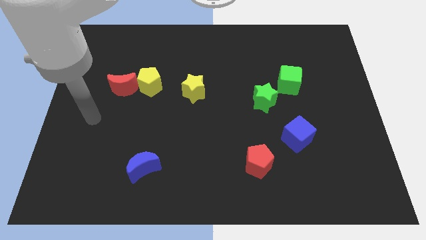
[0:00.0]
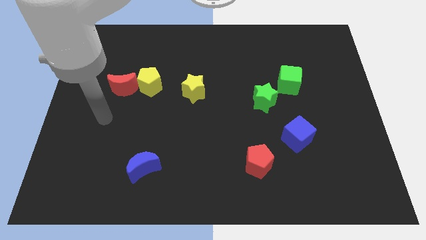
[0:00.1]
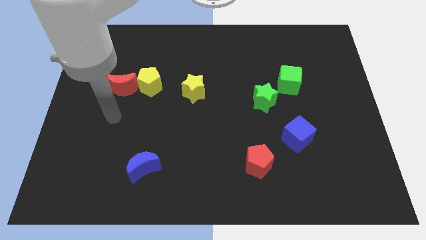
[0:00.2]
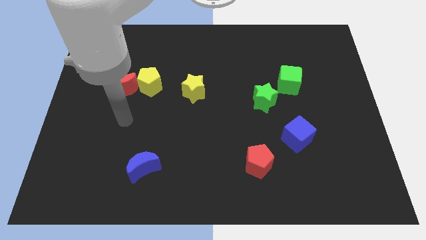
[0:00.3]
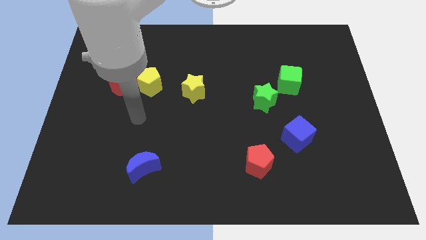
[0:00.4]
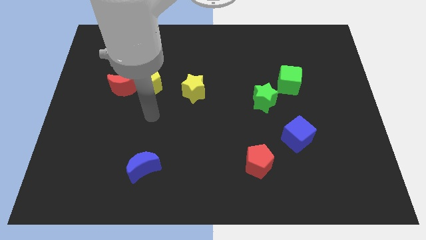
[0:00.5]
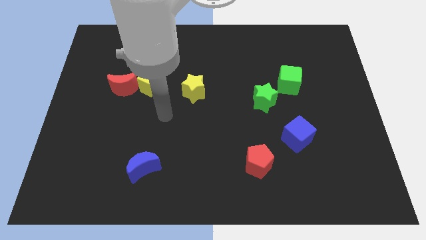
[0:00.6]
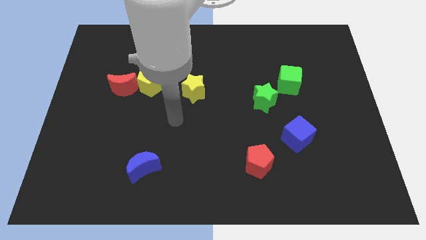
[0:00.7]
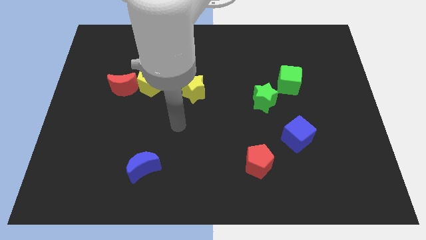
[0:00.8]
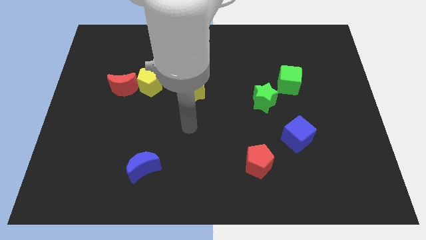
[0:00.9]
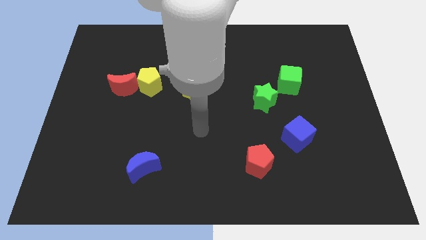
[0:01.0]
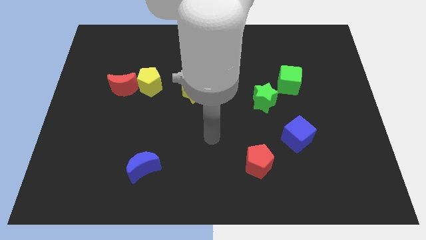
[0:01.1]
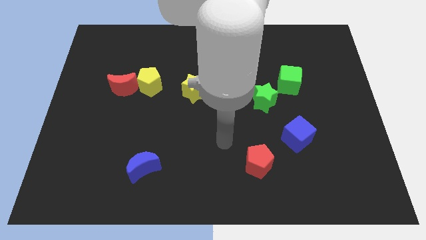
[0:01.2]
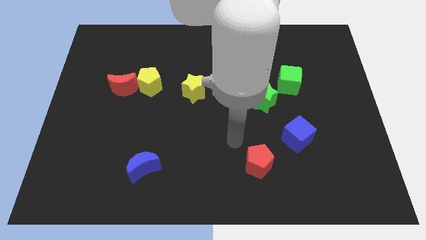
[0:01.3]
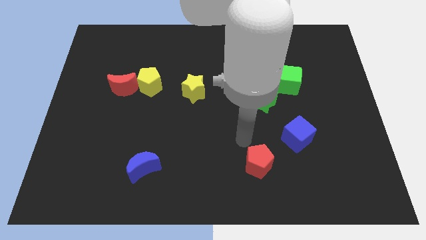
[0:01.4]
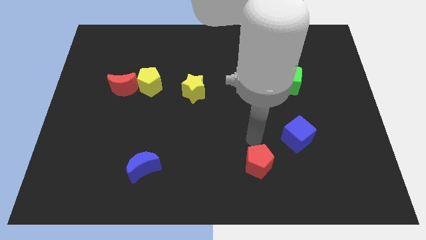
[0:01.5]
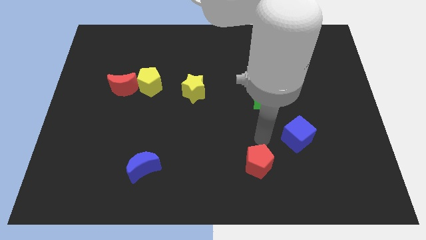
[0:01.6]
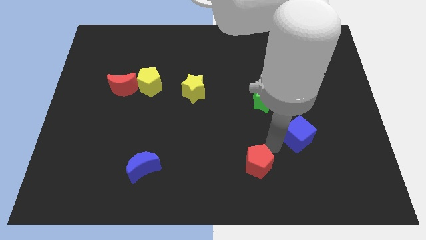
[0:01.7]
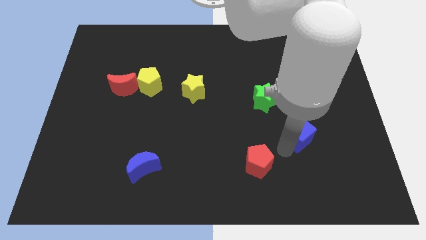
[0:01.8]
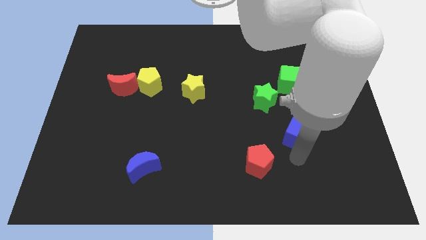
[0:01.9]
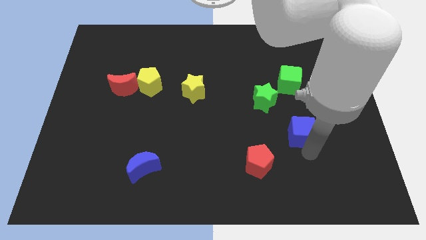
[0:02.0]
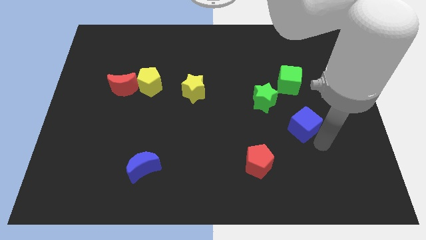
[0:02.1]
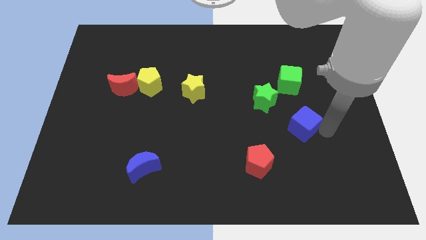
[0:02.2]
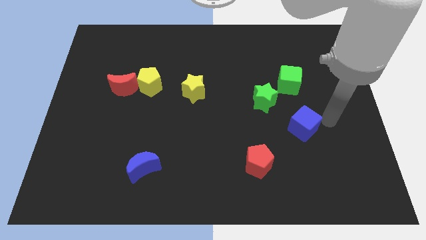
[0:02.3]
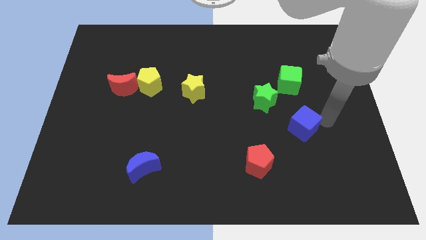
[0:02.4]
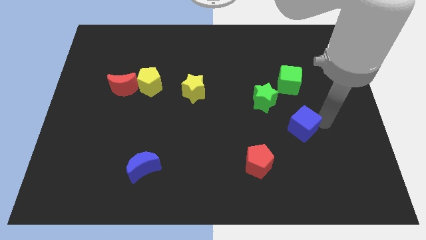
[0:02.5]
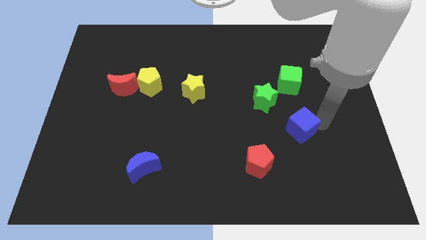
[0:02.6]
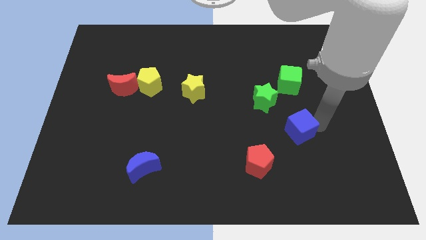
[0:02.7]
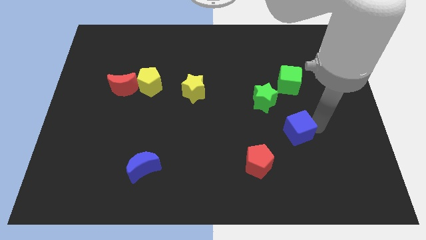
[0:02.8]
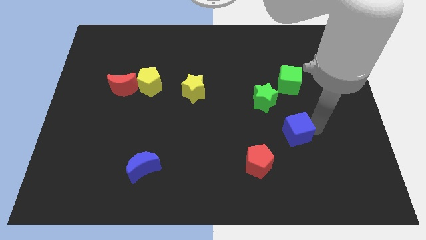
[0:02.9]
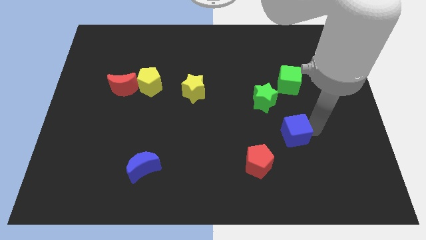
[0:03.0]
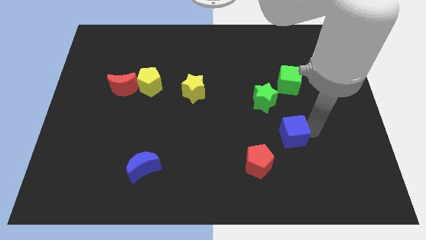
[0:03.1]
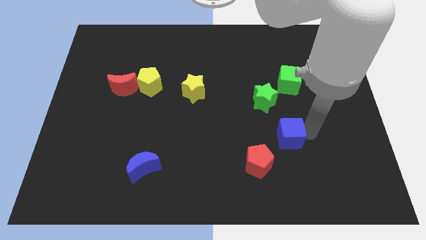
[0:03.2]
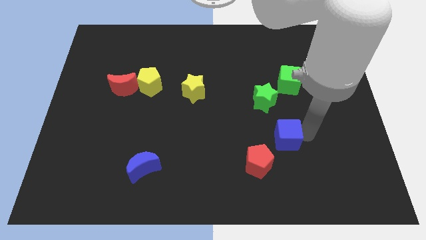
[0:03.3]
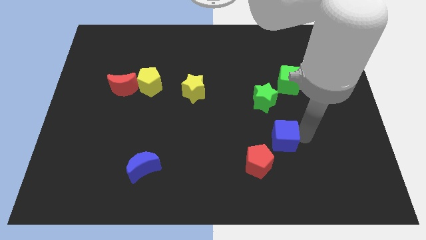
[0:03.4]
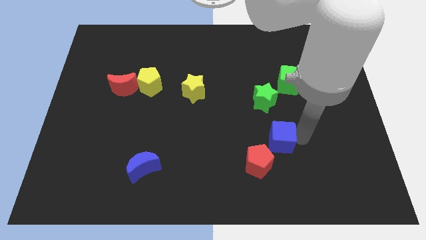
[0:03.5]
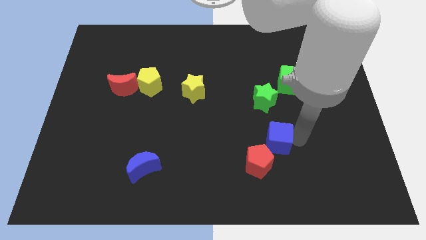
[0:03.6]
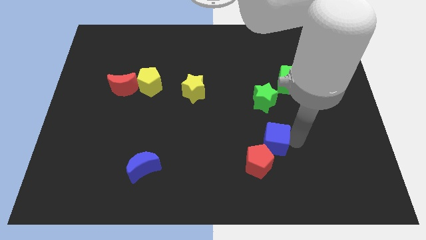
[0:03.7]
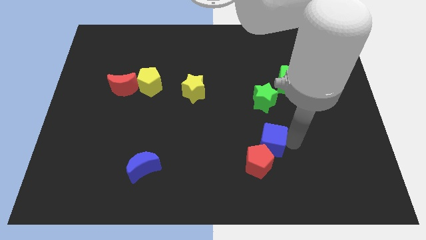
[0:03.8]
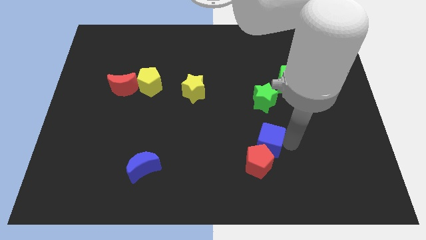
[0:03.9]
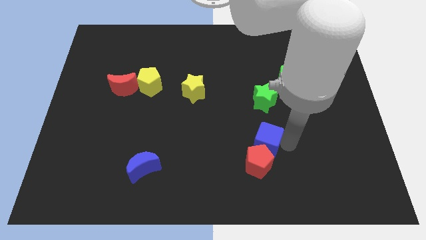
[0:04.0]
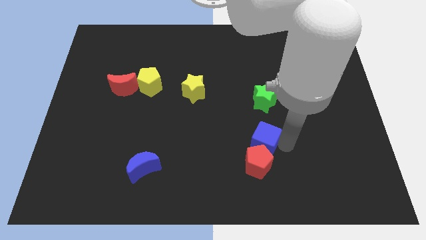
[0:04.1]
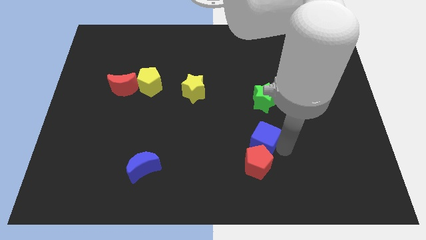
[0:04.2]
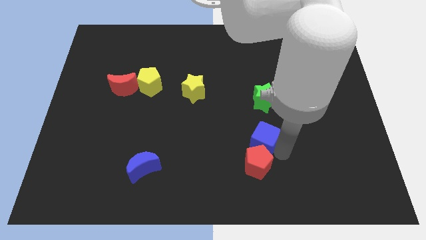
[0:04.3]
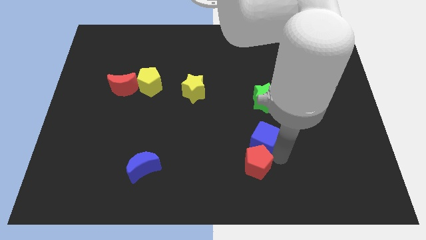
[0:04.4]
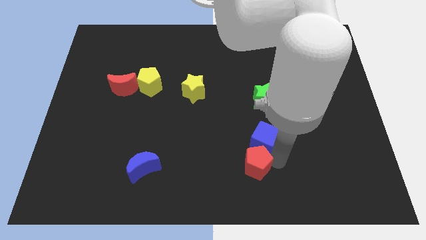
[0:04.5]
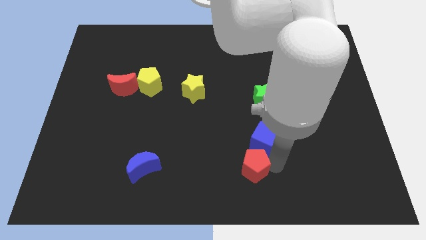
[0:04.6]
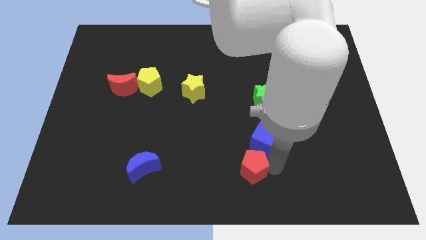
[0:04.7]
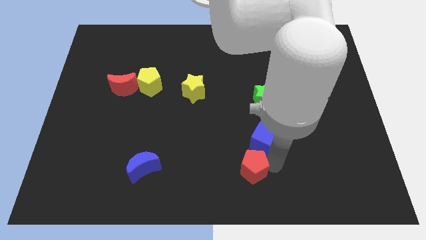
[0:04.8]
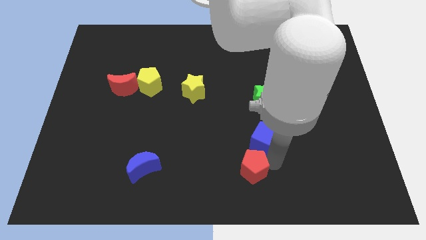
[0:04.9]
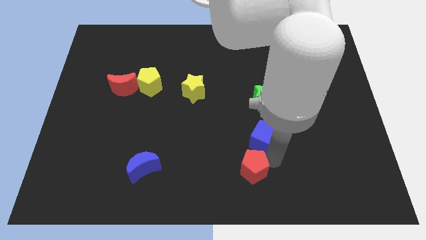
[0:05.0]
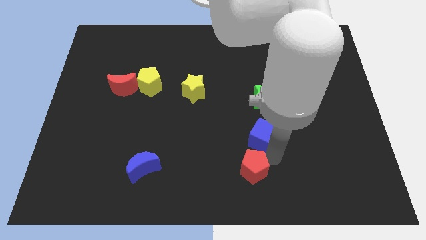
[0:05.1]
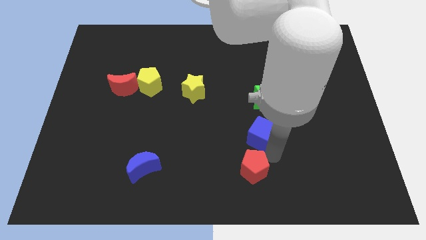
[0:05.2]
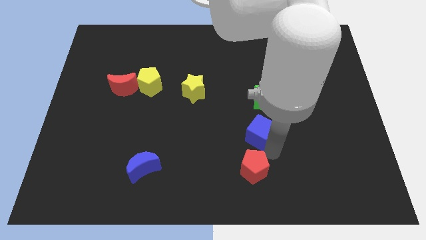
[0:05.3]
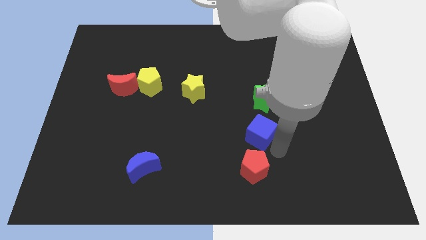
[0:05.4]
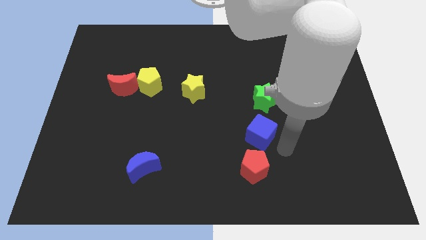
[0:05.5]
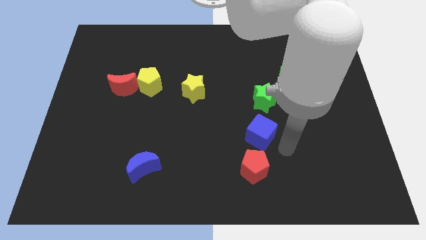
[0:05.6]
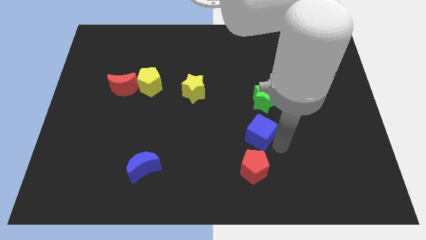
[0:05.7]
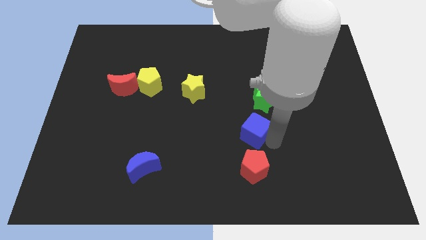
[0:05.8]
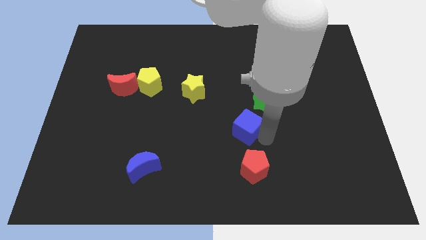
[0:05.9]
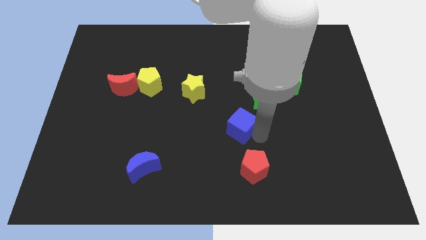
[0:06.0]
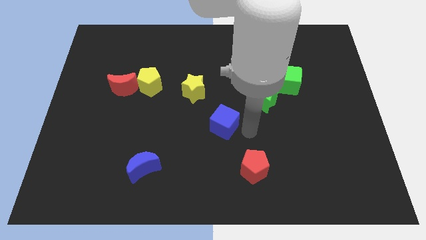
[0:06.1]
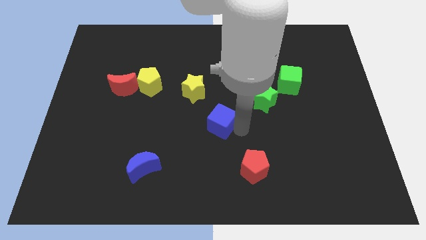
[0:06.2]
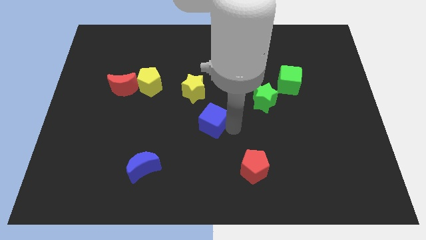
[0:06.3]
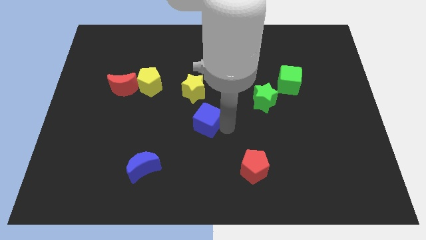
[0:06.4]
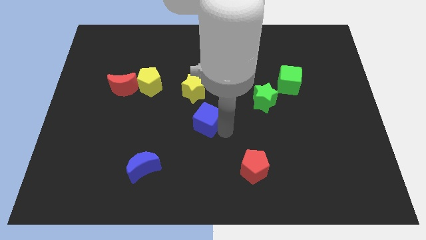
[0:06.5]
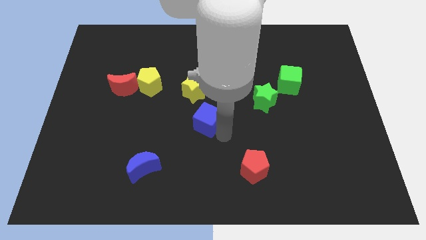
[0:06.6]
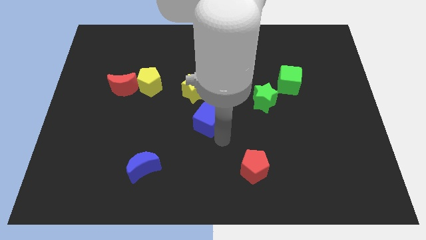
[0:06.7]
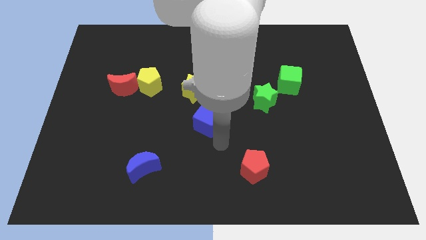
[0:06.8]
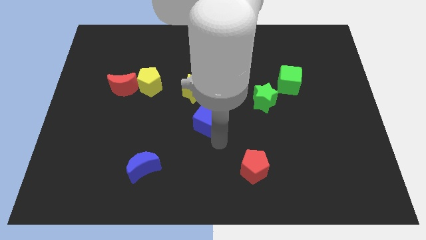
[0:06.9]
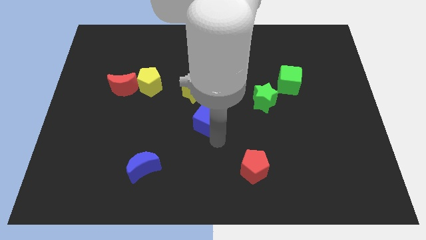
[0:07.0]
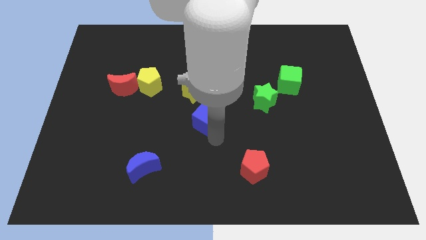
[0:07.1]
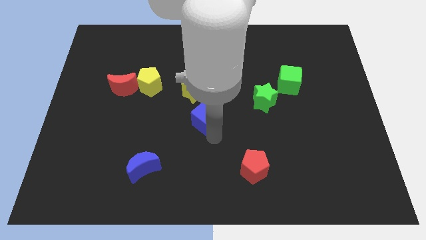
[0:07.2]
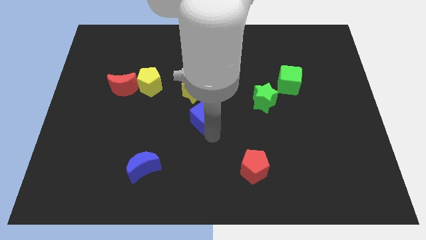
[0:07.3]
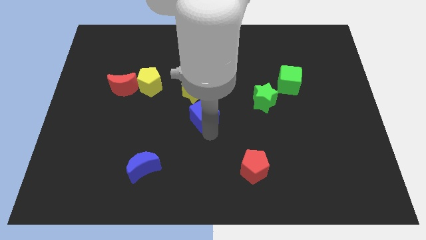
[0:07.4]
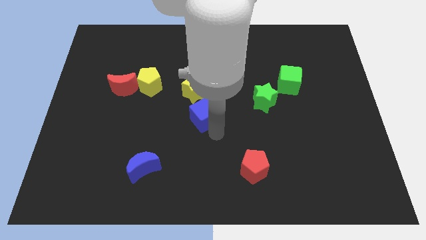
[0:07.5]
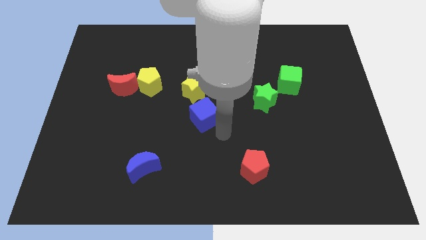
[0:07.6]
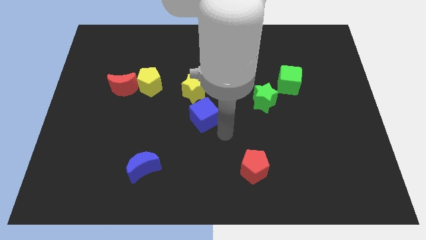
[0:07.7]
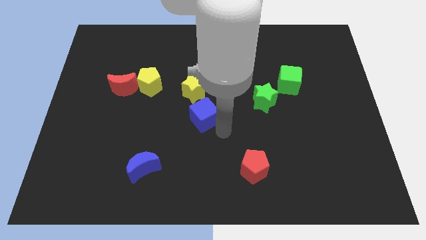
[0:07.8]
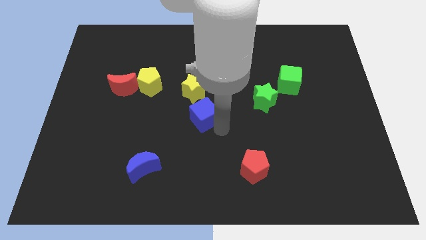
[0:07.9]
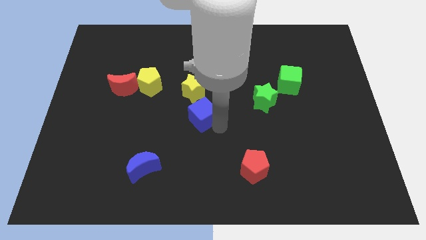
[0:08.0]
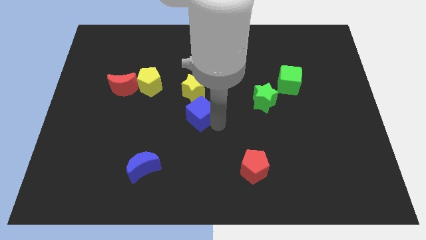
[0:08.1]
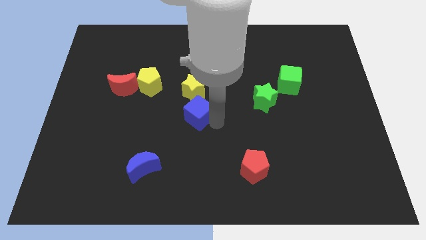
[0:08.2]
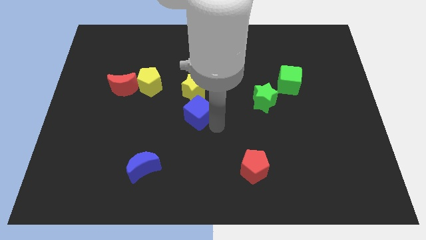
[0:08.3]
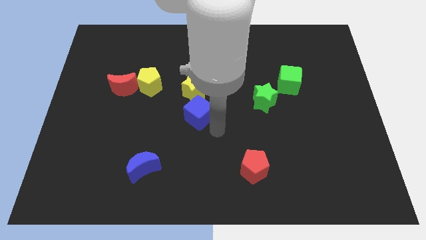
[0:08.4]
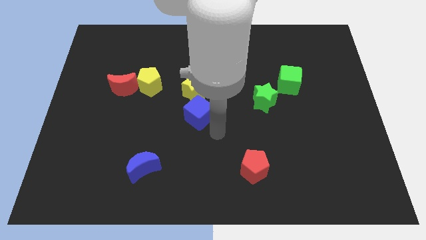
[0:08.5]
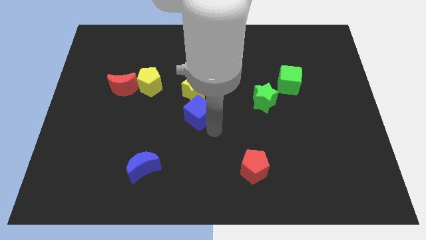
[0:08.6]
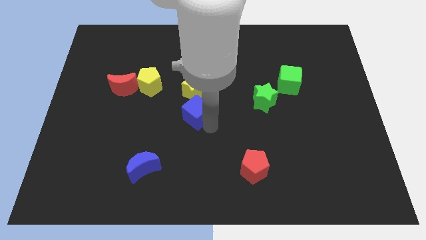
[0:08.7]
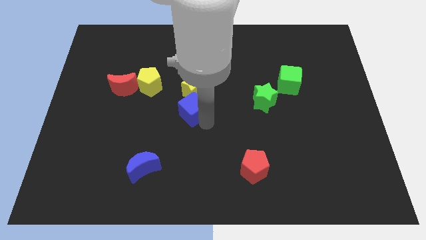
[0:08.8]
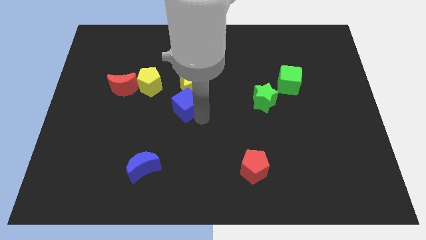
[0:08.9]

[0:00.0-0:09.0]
push the blue cube to the bottom right of the yellow pentagon
